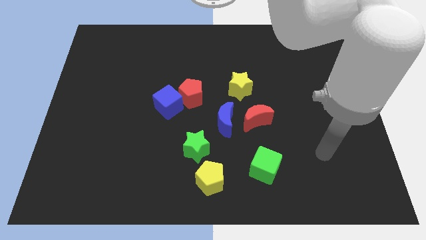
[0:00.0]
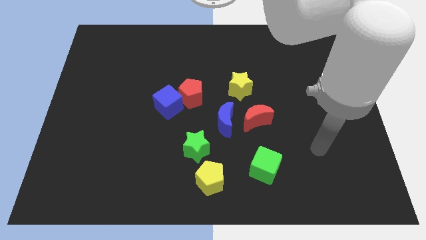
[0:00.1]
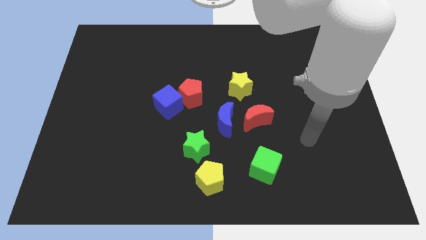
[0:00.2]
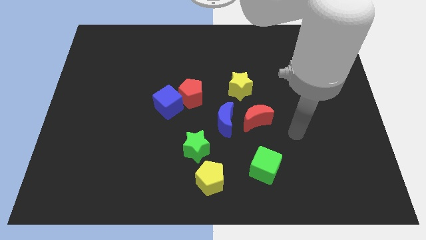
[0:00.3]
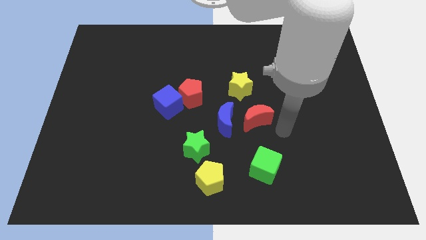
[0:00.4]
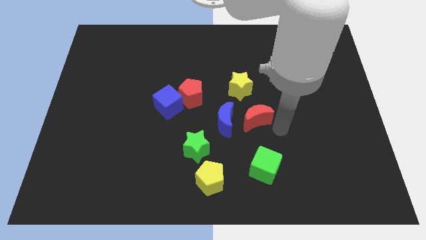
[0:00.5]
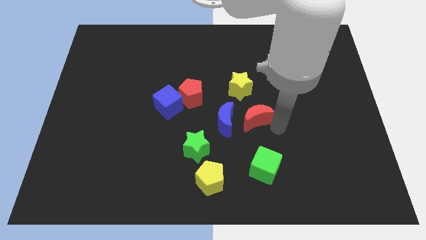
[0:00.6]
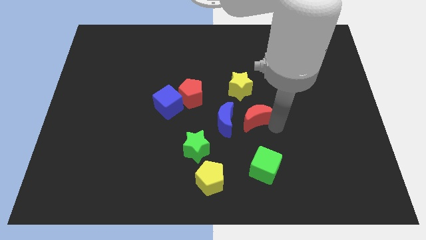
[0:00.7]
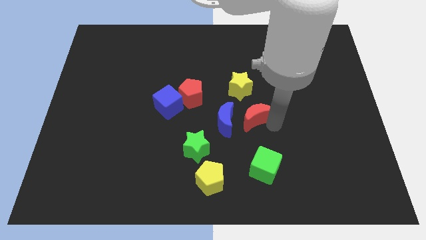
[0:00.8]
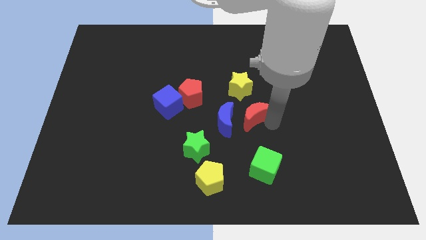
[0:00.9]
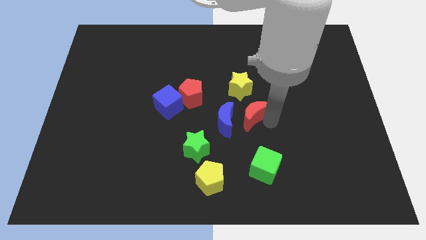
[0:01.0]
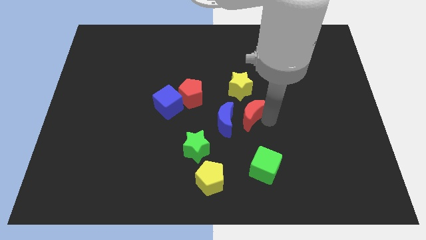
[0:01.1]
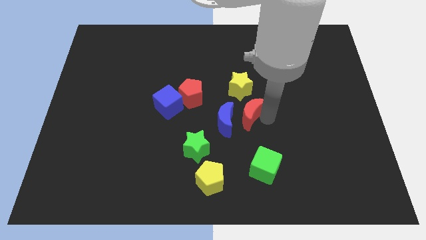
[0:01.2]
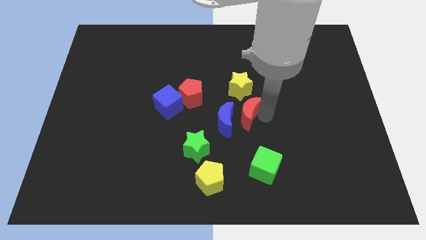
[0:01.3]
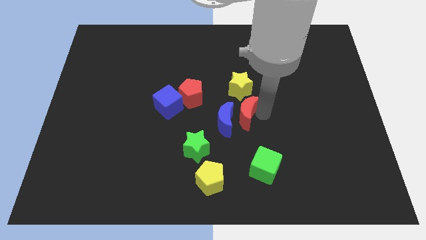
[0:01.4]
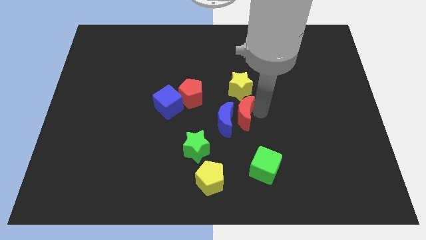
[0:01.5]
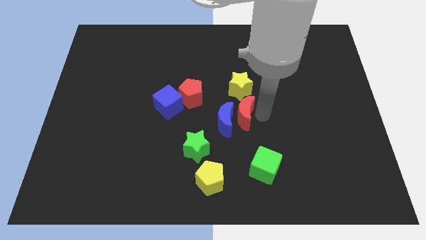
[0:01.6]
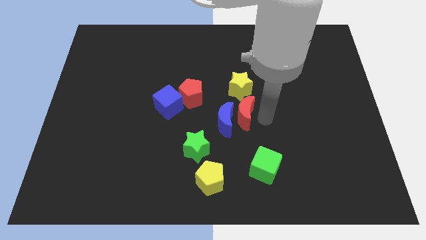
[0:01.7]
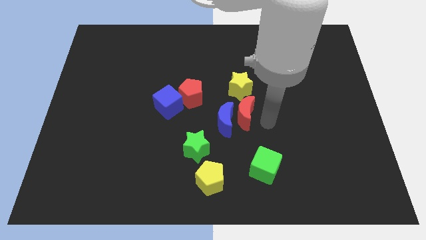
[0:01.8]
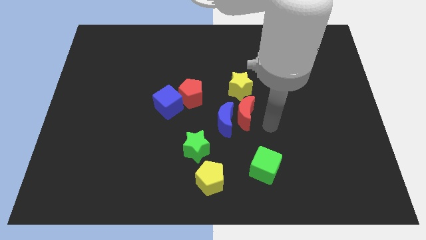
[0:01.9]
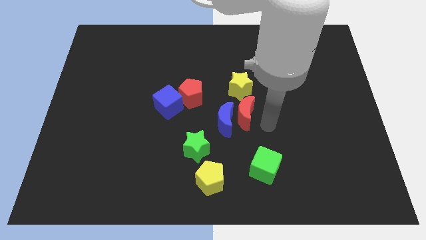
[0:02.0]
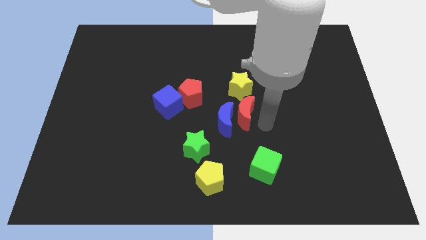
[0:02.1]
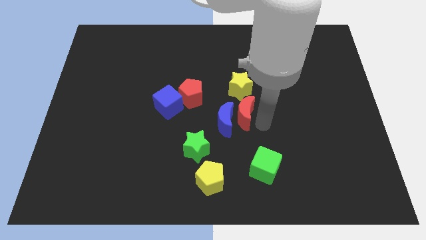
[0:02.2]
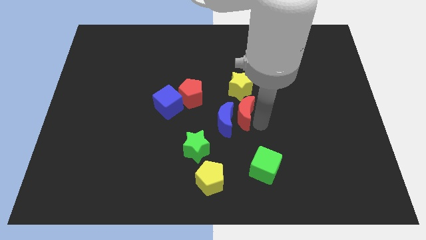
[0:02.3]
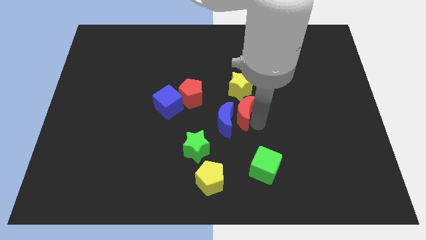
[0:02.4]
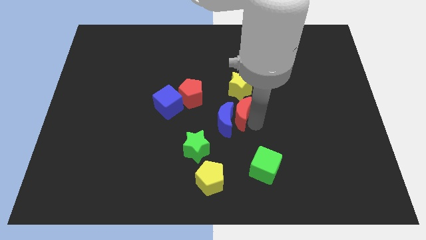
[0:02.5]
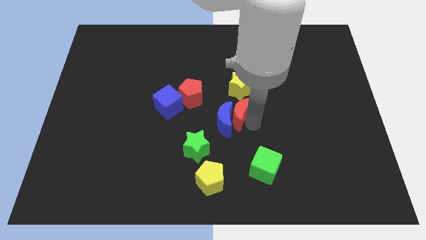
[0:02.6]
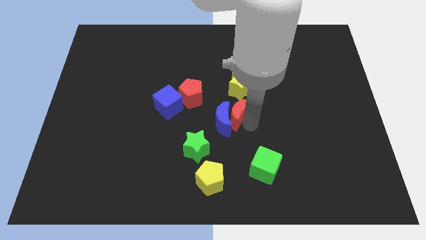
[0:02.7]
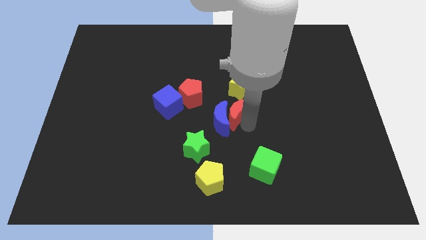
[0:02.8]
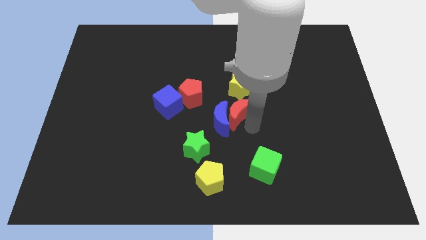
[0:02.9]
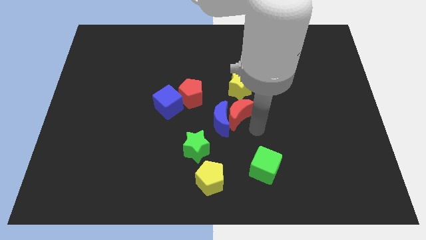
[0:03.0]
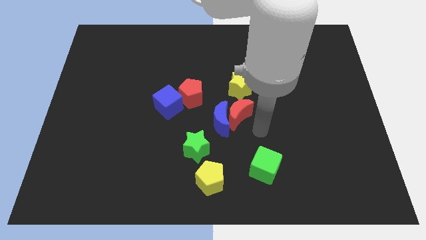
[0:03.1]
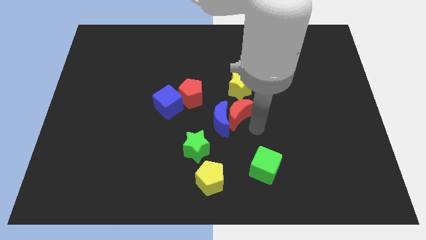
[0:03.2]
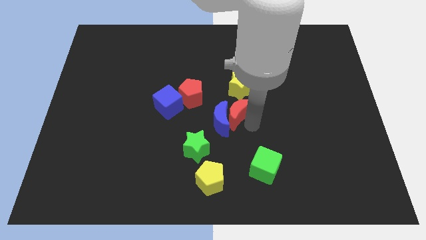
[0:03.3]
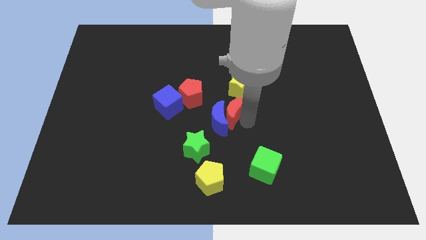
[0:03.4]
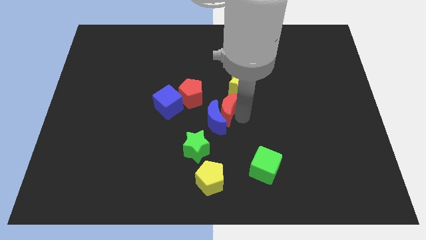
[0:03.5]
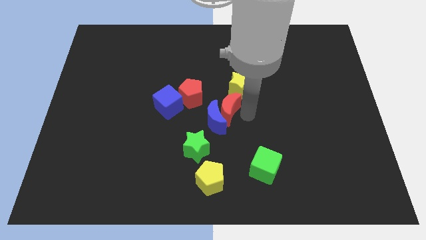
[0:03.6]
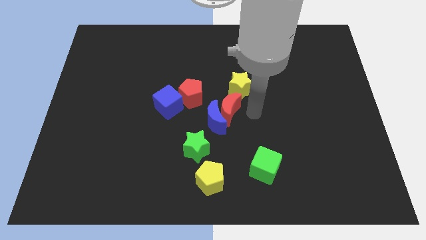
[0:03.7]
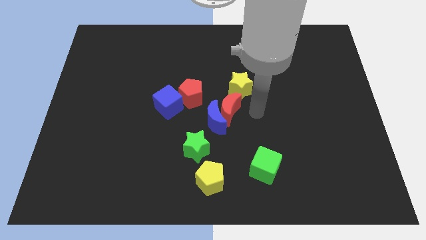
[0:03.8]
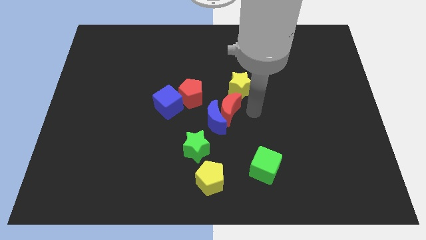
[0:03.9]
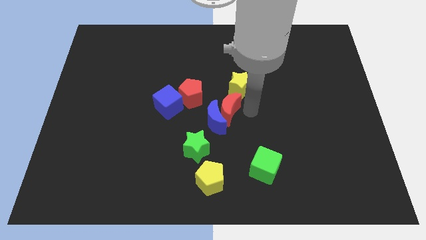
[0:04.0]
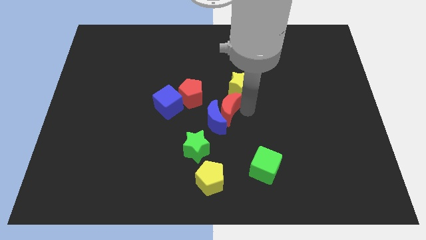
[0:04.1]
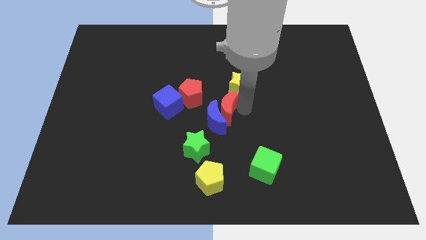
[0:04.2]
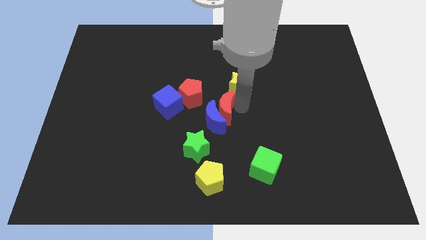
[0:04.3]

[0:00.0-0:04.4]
slightly slide the red moon left

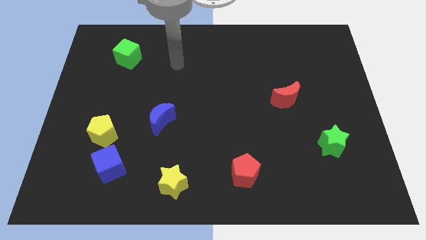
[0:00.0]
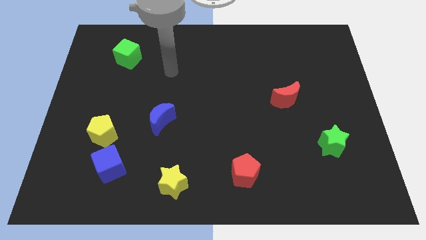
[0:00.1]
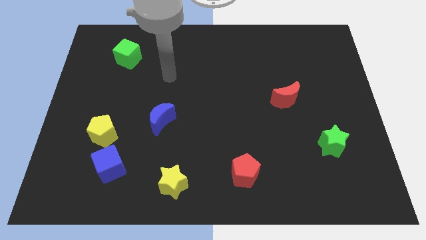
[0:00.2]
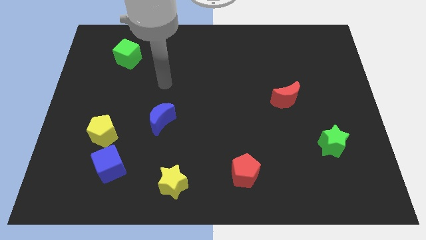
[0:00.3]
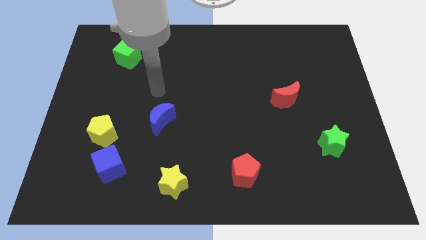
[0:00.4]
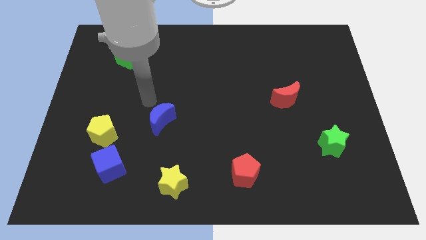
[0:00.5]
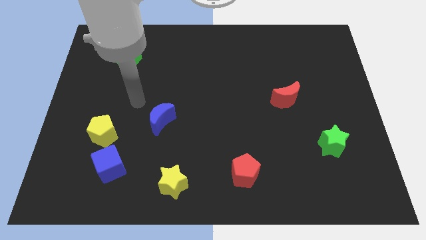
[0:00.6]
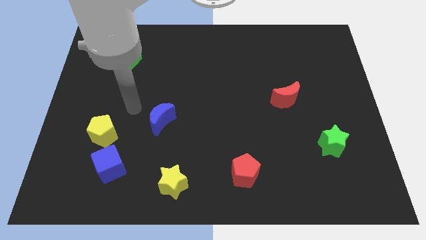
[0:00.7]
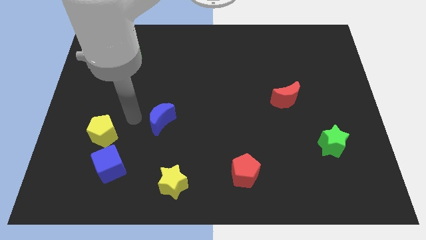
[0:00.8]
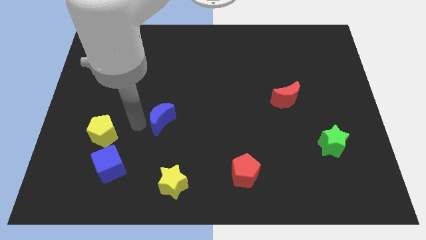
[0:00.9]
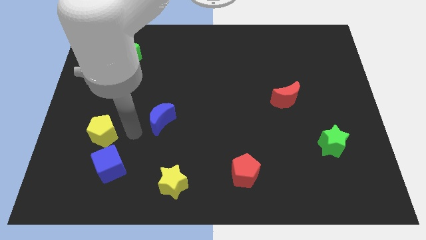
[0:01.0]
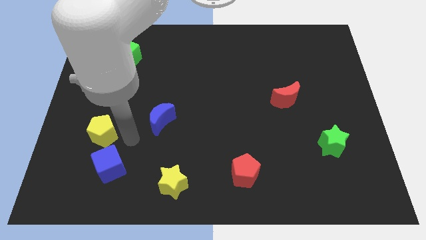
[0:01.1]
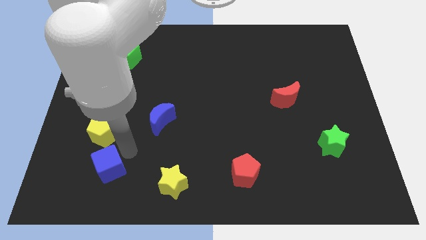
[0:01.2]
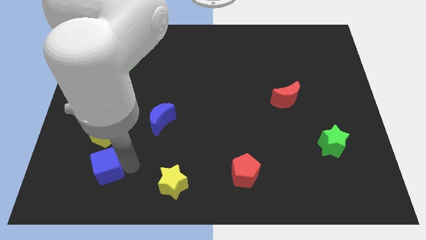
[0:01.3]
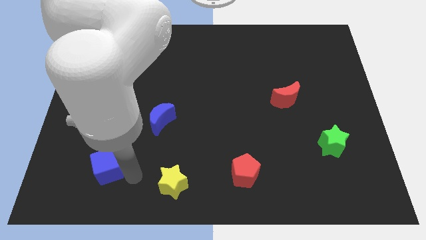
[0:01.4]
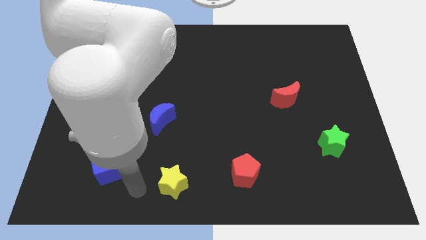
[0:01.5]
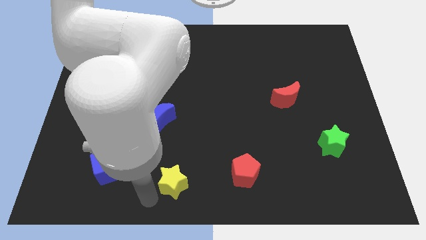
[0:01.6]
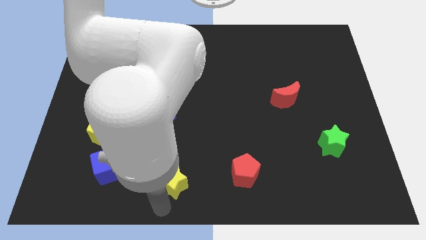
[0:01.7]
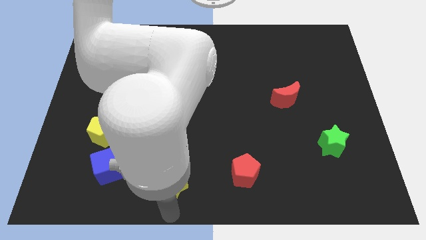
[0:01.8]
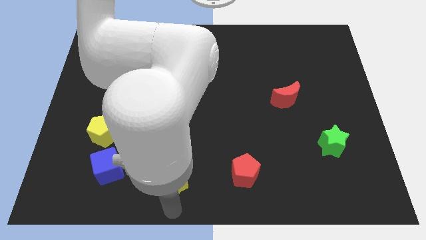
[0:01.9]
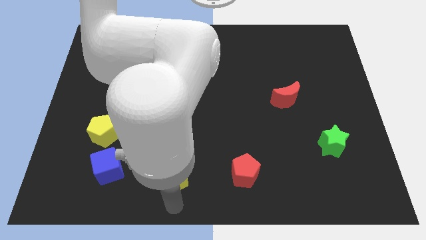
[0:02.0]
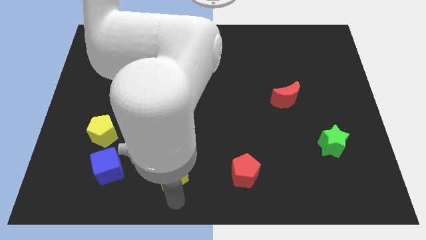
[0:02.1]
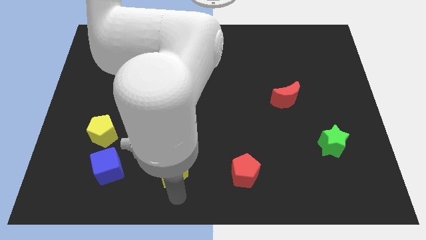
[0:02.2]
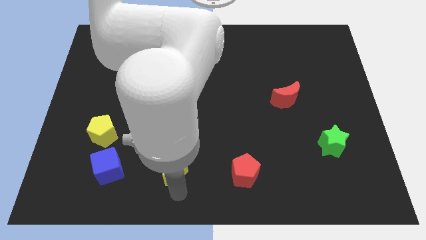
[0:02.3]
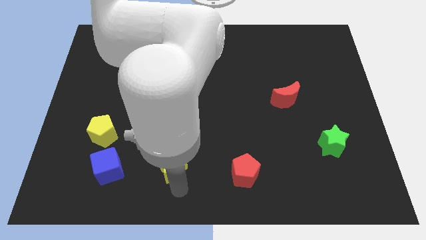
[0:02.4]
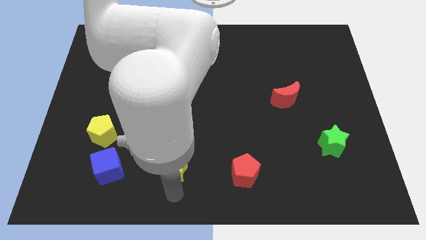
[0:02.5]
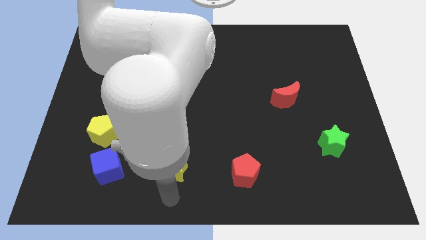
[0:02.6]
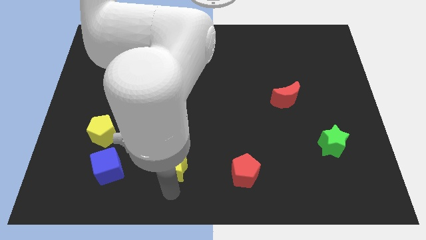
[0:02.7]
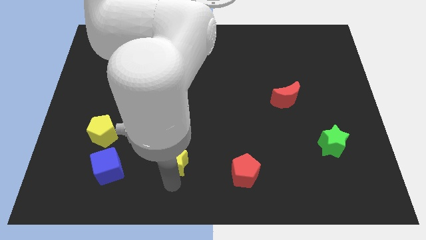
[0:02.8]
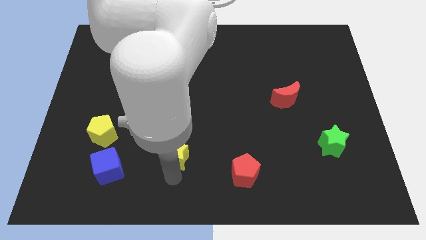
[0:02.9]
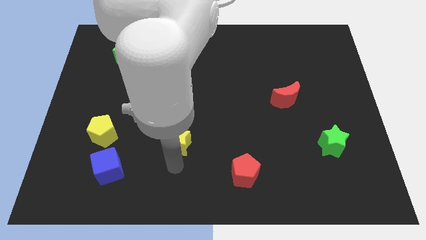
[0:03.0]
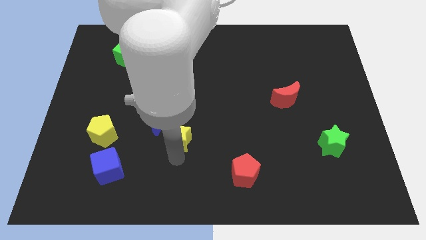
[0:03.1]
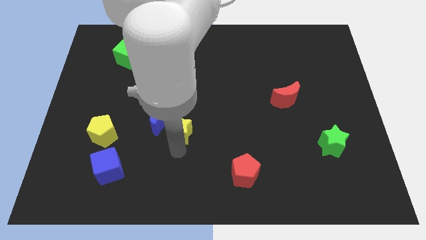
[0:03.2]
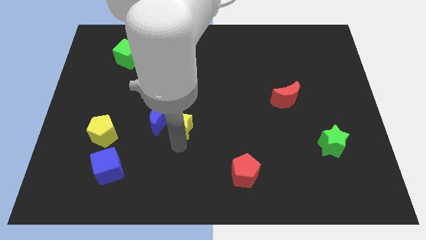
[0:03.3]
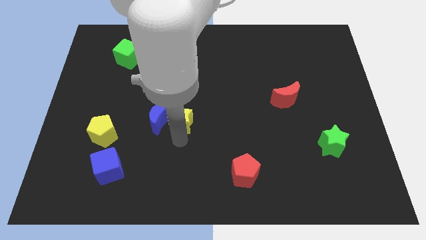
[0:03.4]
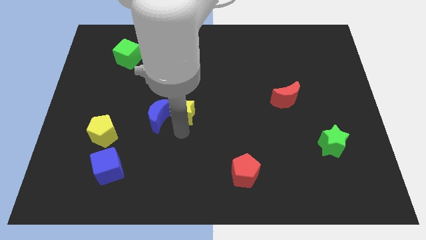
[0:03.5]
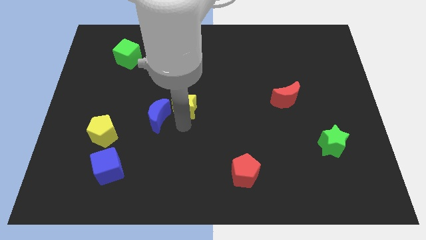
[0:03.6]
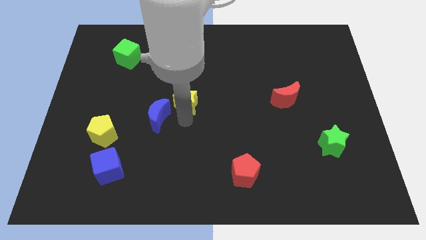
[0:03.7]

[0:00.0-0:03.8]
push the yellow star up

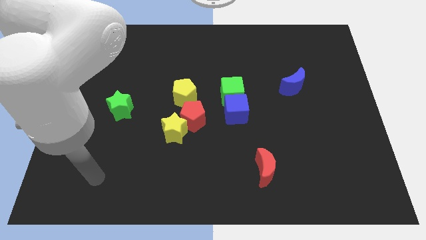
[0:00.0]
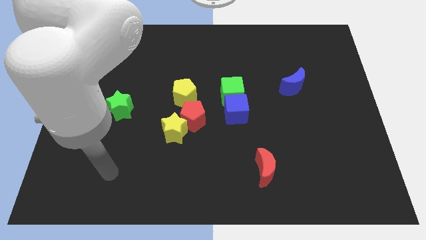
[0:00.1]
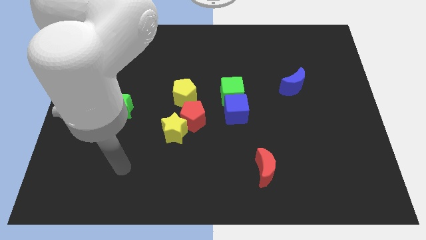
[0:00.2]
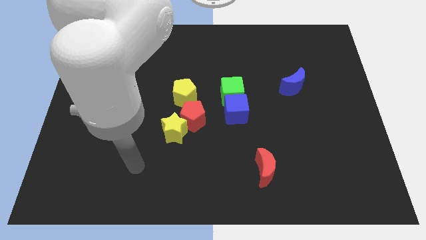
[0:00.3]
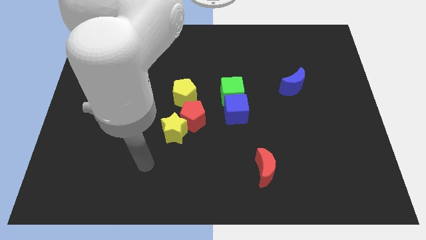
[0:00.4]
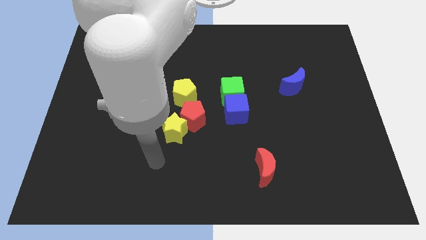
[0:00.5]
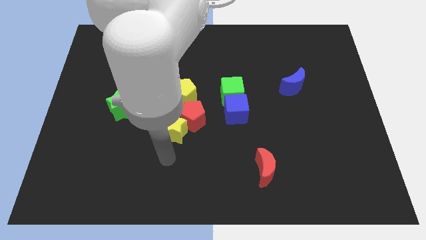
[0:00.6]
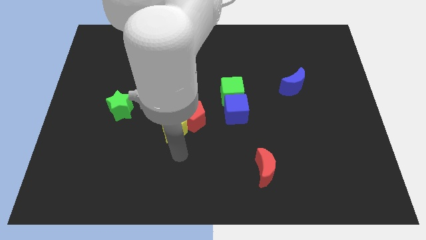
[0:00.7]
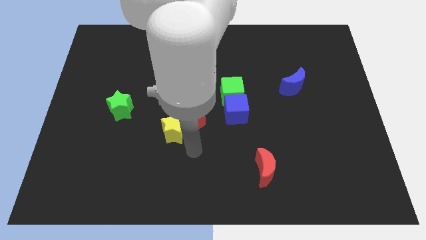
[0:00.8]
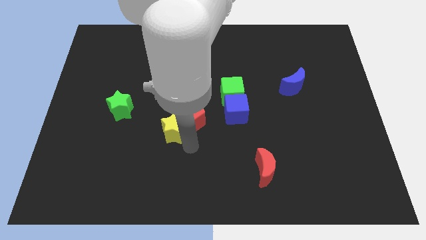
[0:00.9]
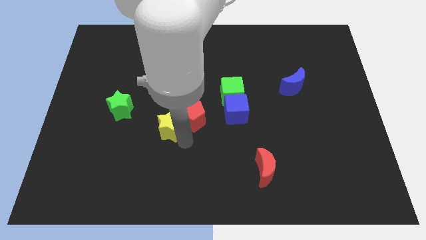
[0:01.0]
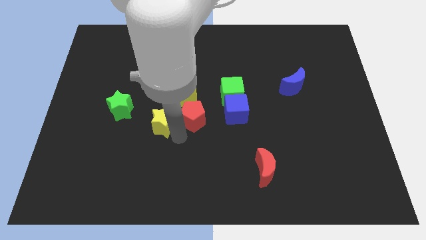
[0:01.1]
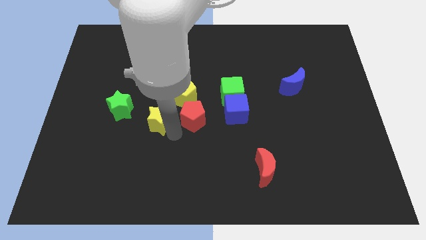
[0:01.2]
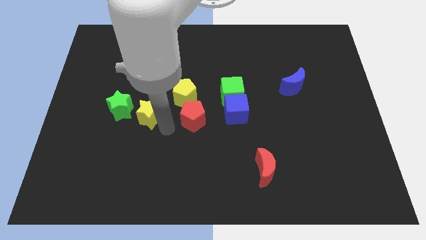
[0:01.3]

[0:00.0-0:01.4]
move the yellow star a little diagonally upwards and to the left
